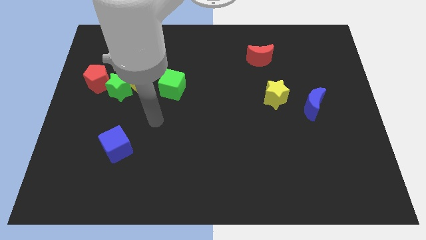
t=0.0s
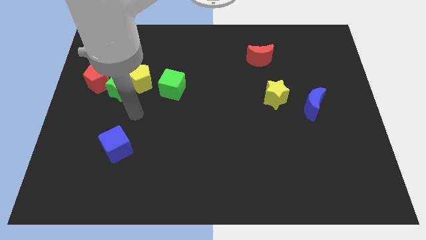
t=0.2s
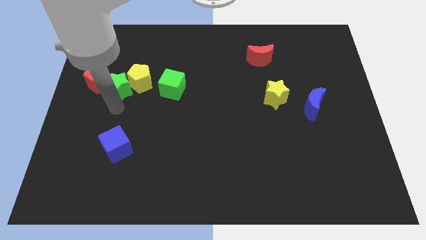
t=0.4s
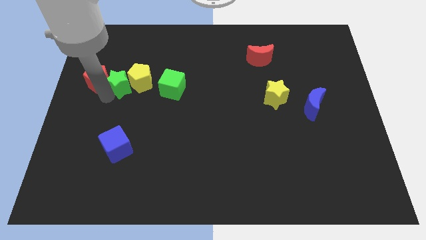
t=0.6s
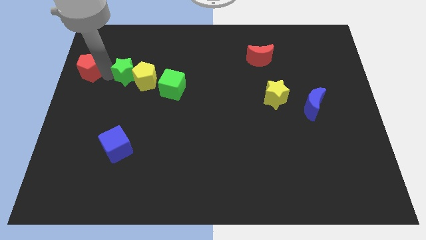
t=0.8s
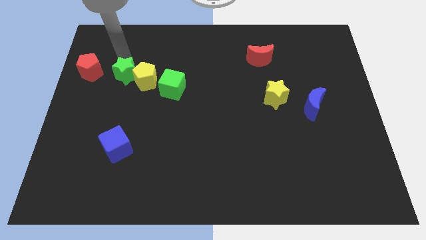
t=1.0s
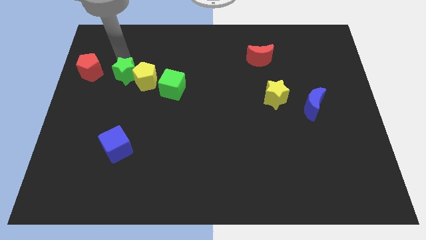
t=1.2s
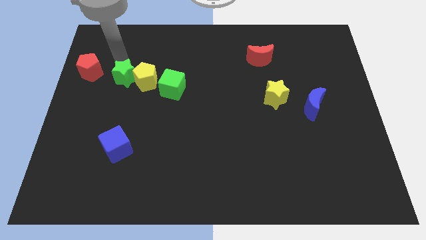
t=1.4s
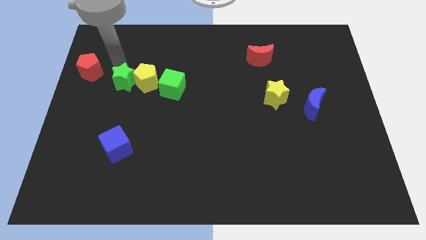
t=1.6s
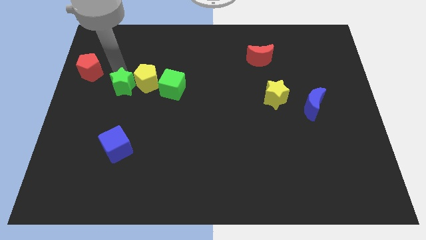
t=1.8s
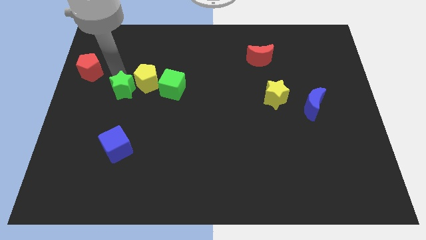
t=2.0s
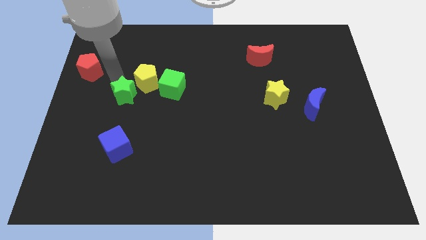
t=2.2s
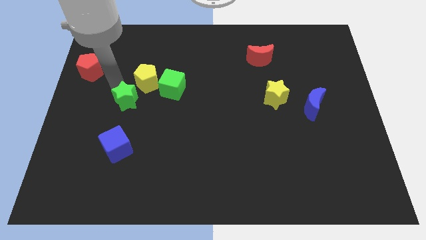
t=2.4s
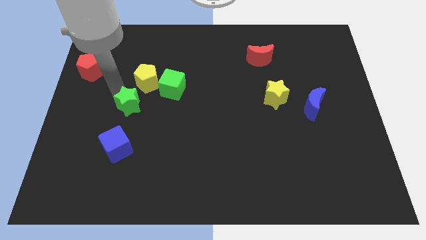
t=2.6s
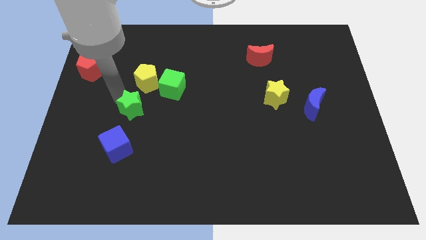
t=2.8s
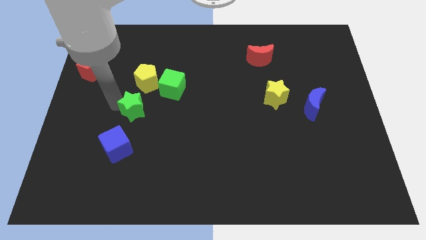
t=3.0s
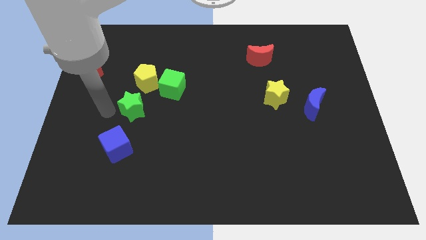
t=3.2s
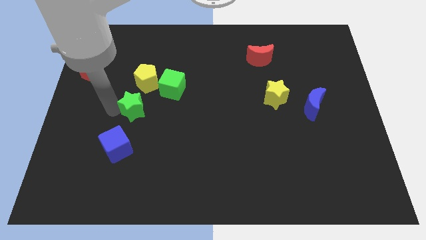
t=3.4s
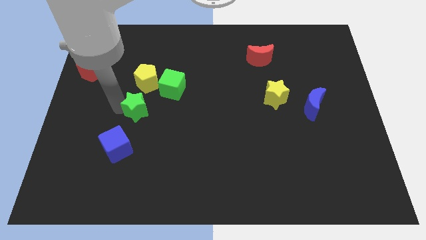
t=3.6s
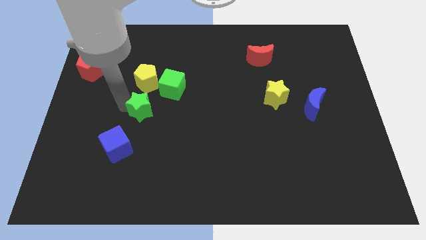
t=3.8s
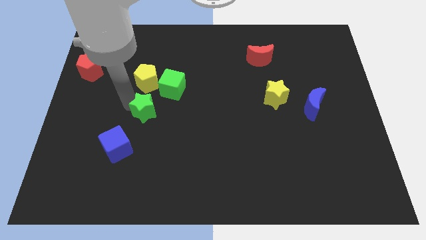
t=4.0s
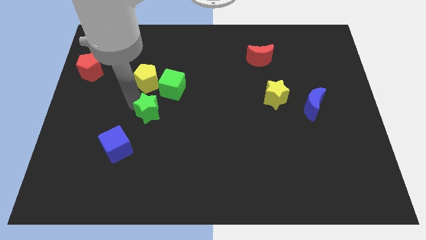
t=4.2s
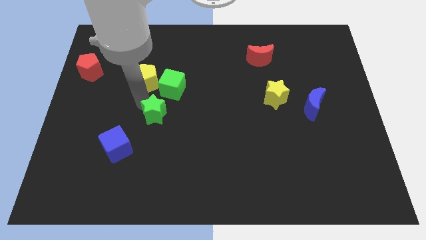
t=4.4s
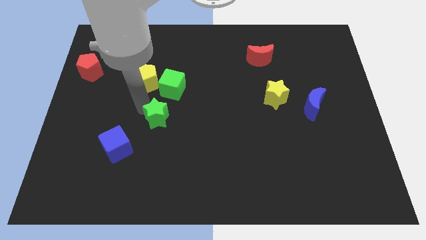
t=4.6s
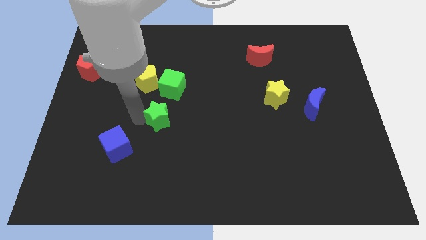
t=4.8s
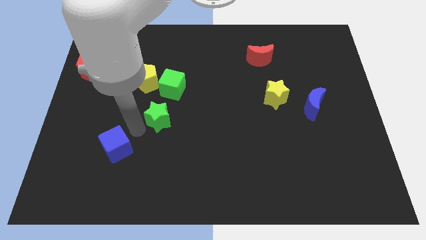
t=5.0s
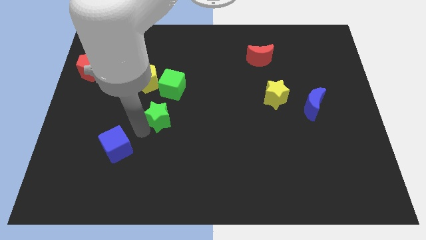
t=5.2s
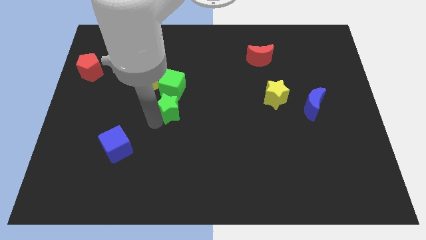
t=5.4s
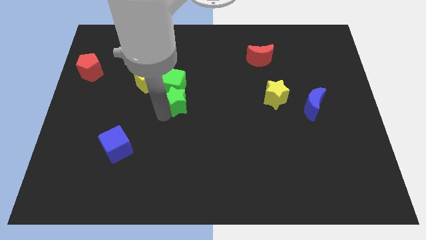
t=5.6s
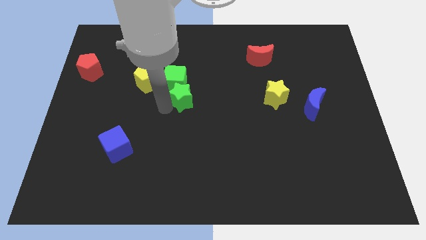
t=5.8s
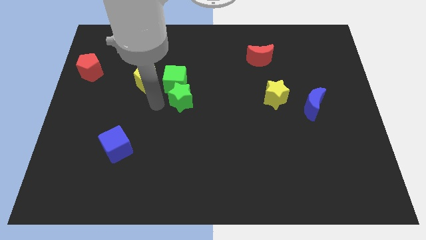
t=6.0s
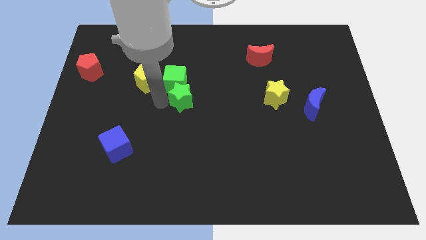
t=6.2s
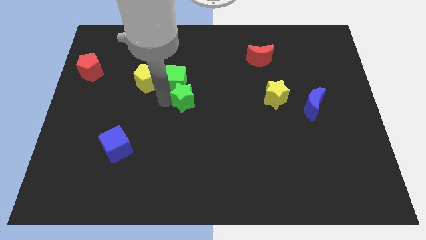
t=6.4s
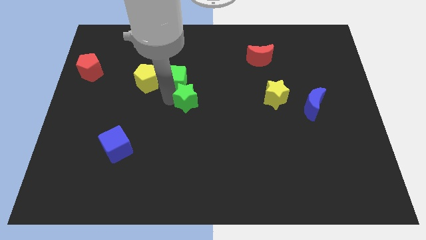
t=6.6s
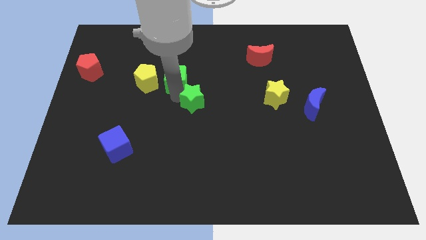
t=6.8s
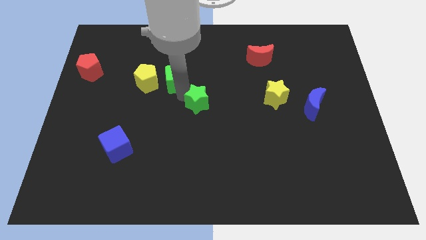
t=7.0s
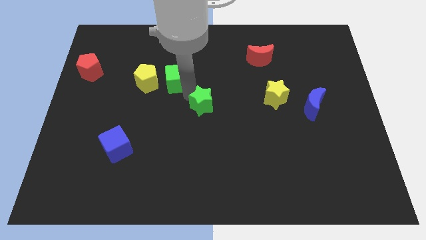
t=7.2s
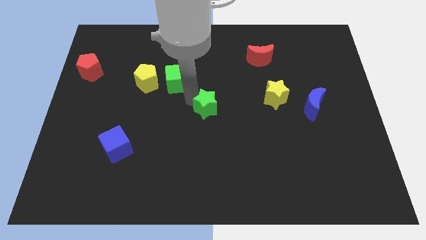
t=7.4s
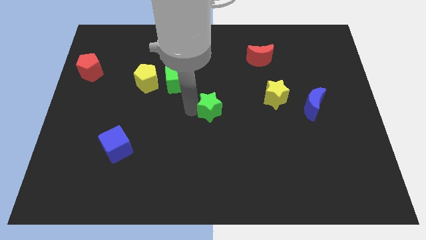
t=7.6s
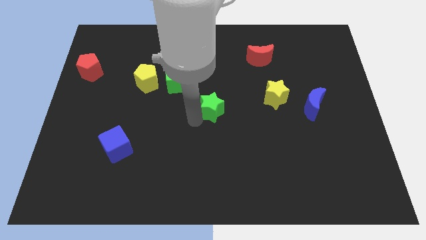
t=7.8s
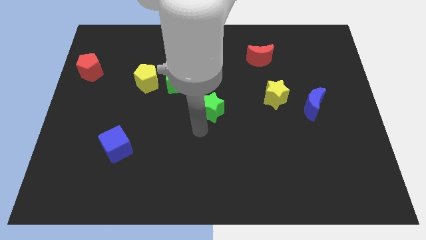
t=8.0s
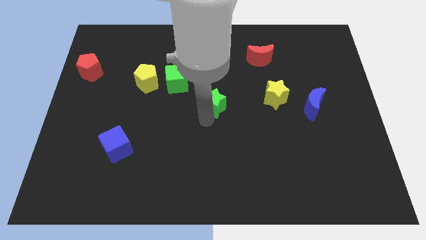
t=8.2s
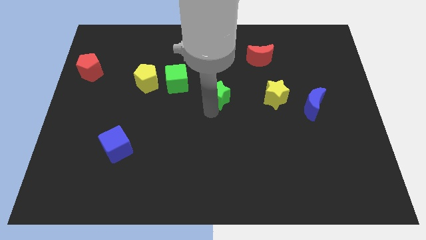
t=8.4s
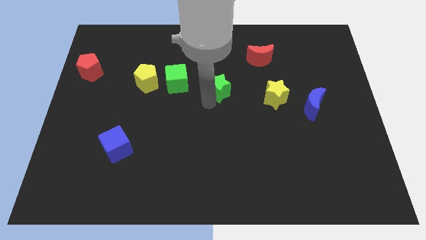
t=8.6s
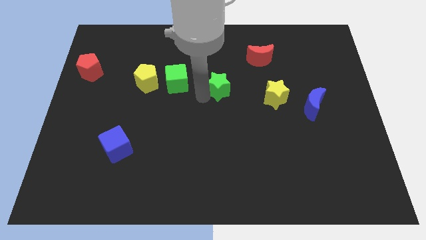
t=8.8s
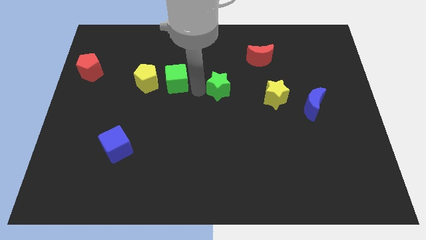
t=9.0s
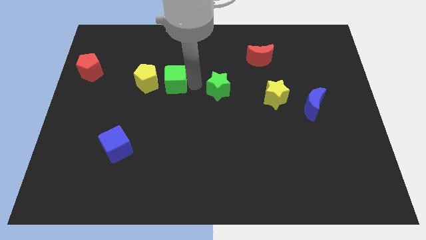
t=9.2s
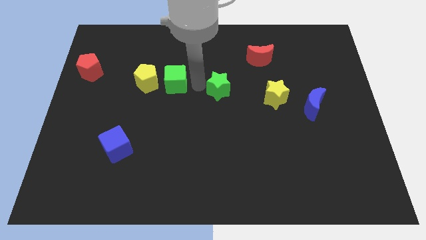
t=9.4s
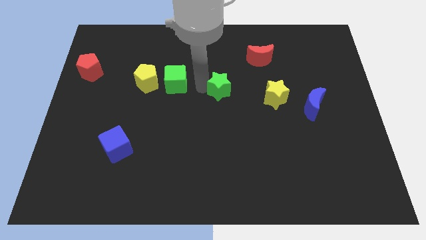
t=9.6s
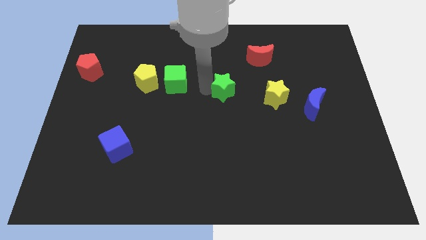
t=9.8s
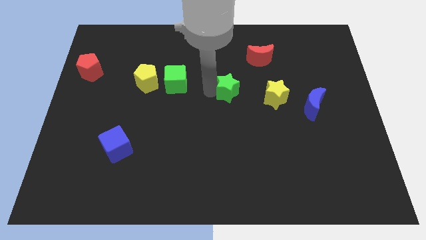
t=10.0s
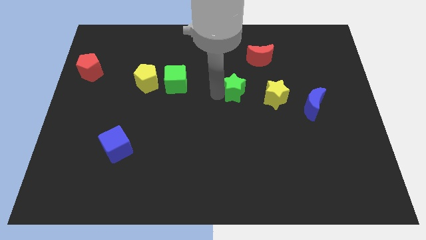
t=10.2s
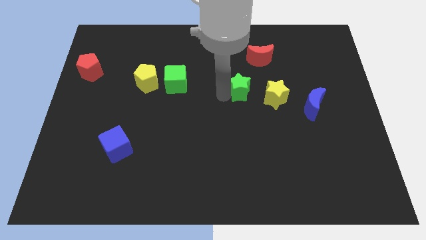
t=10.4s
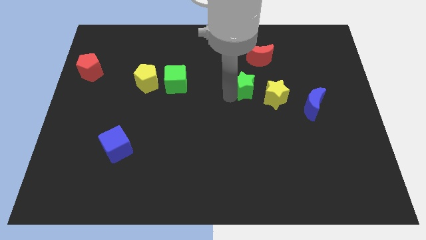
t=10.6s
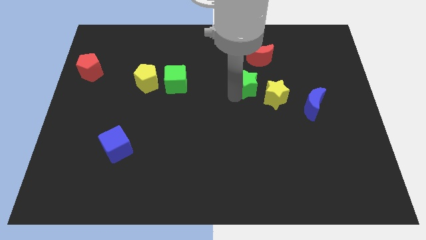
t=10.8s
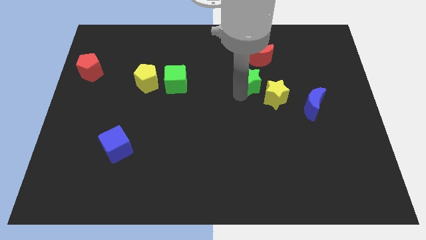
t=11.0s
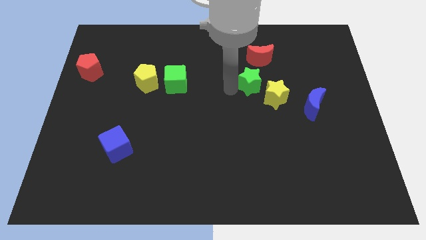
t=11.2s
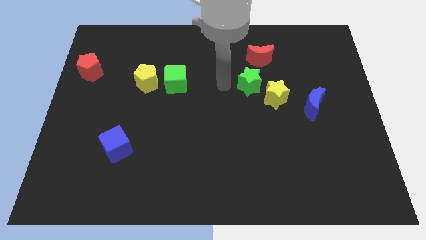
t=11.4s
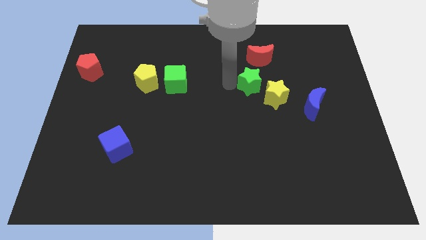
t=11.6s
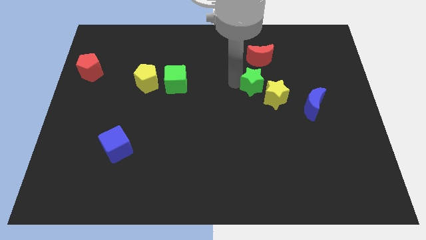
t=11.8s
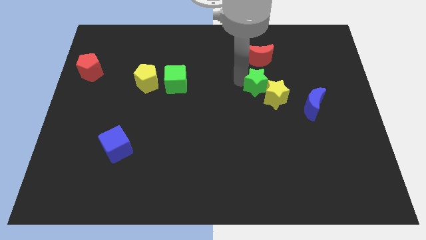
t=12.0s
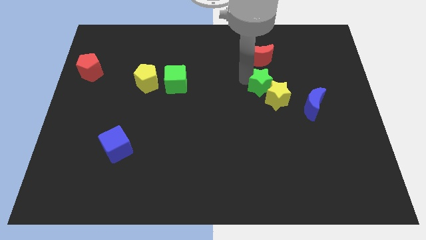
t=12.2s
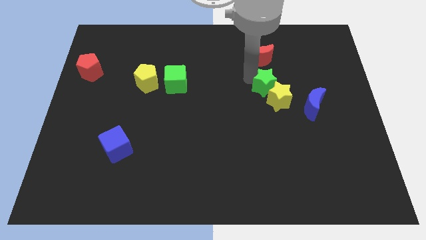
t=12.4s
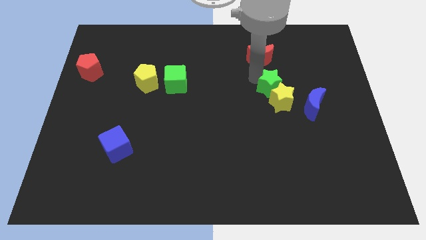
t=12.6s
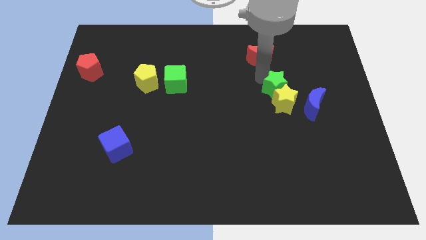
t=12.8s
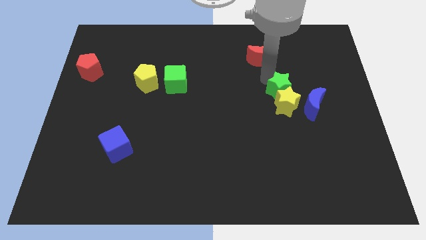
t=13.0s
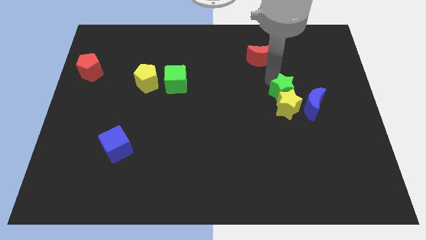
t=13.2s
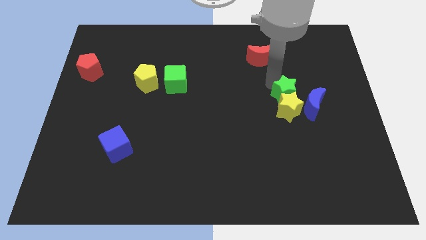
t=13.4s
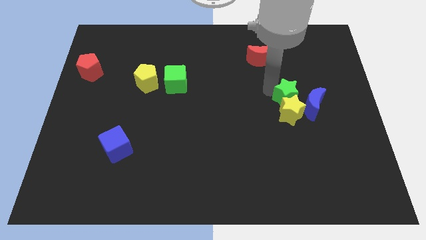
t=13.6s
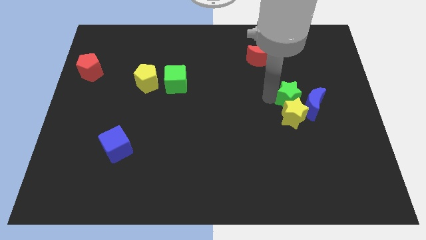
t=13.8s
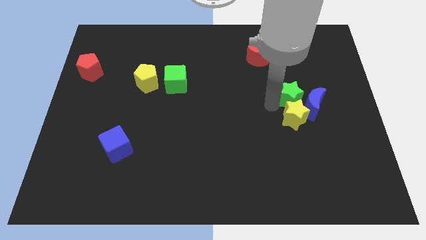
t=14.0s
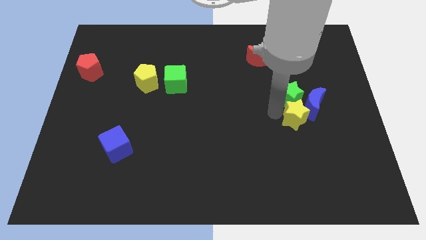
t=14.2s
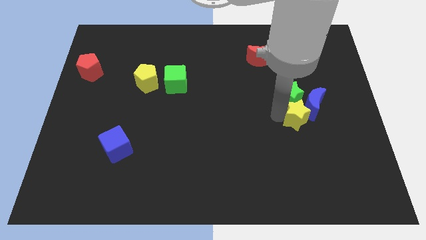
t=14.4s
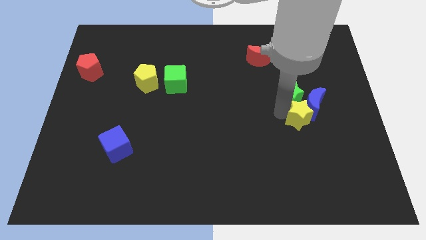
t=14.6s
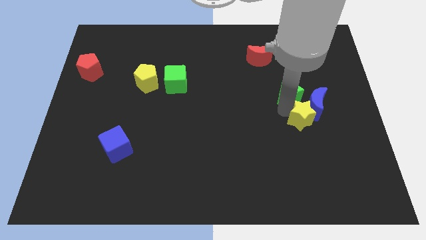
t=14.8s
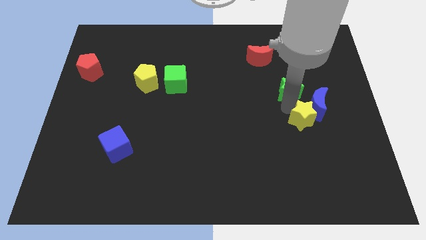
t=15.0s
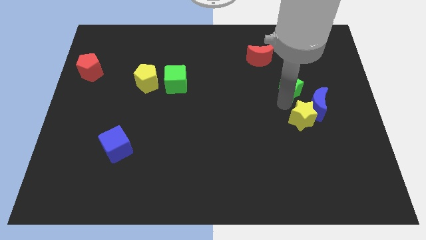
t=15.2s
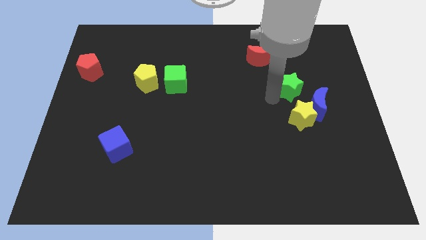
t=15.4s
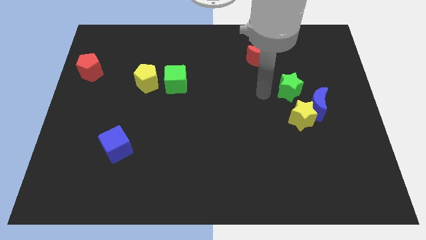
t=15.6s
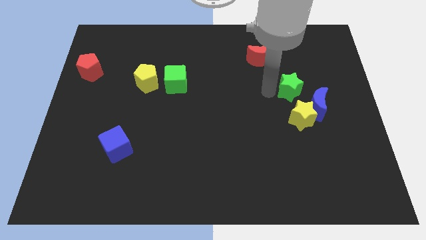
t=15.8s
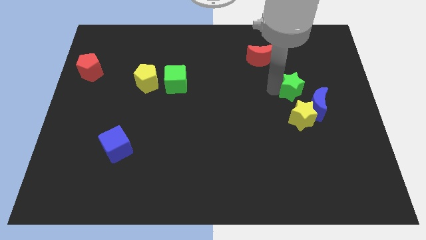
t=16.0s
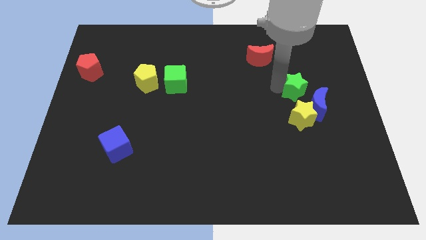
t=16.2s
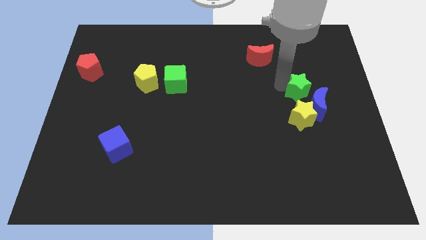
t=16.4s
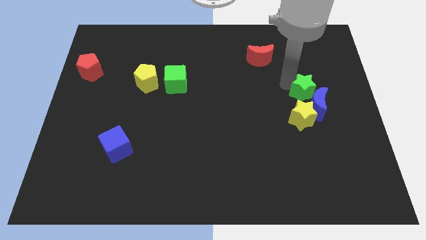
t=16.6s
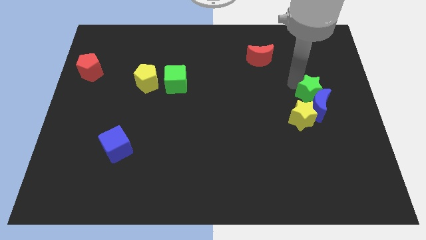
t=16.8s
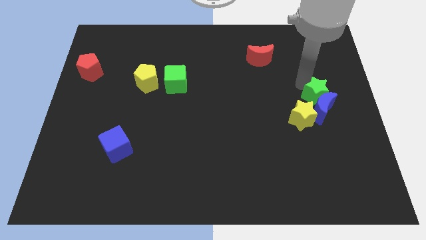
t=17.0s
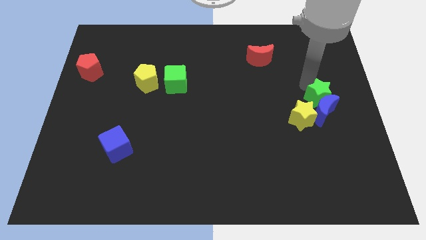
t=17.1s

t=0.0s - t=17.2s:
slide the green star to the center right
